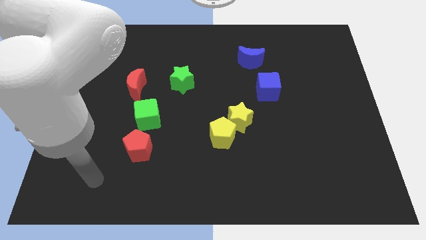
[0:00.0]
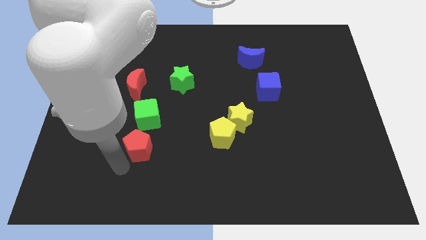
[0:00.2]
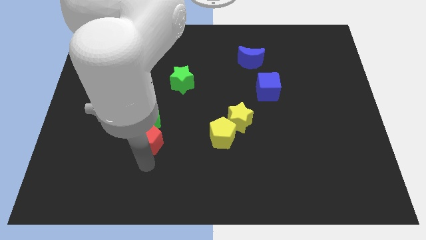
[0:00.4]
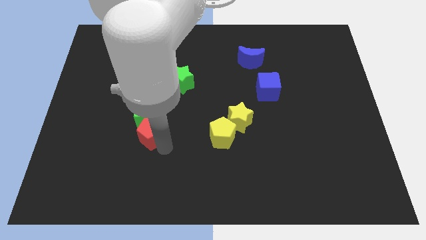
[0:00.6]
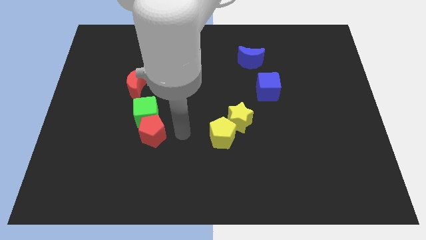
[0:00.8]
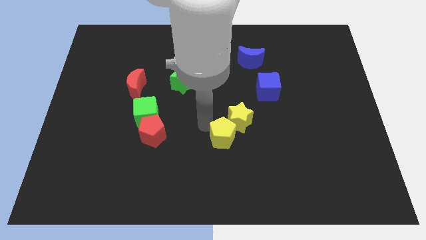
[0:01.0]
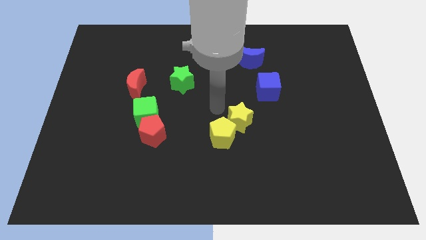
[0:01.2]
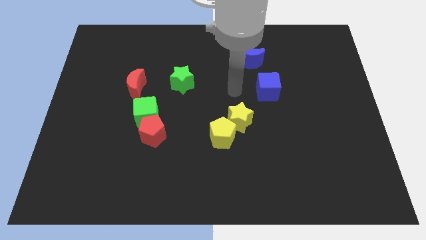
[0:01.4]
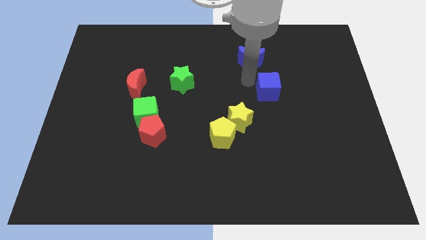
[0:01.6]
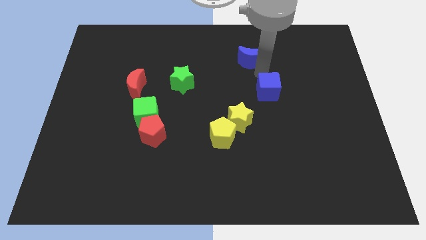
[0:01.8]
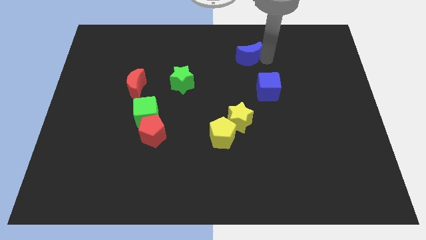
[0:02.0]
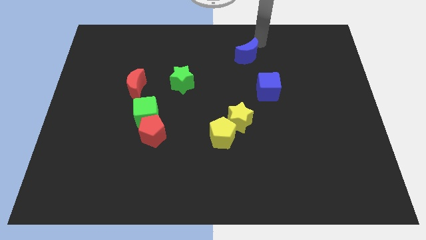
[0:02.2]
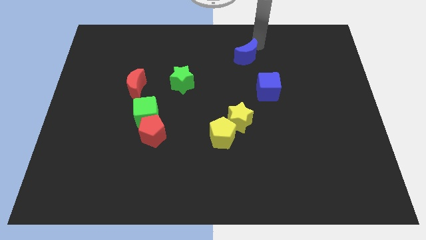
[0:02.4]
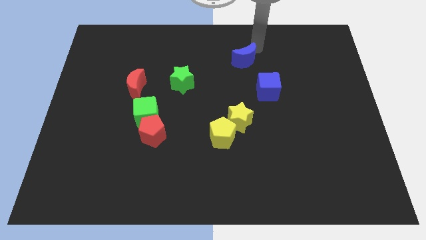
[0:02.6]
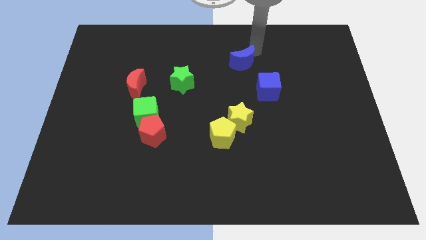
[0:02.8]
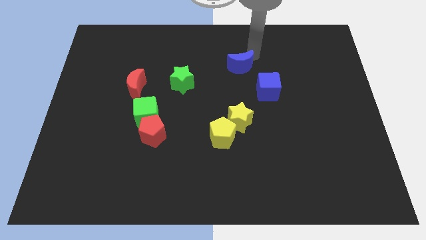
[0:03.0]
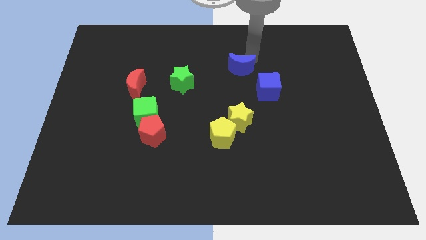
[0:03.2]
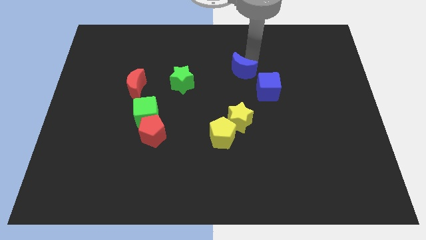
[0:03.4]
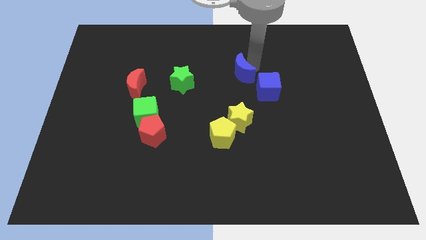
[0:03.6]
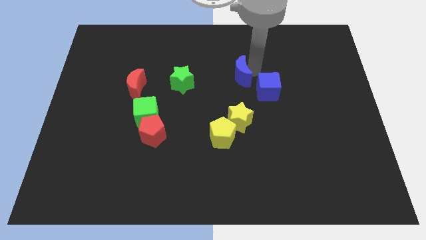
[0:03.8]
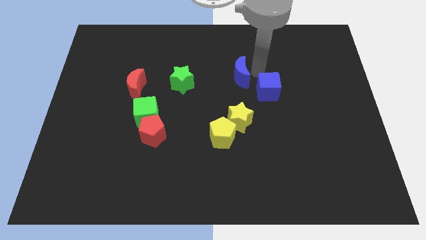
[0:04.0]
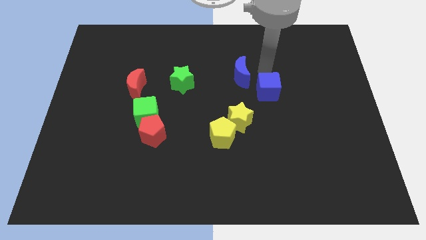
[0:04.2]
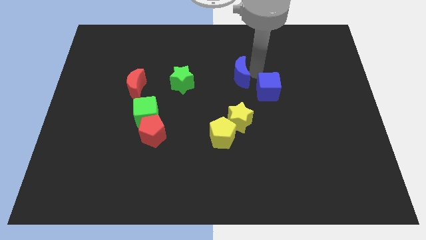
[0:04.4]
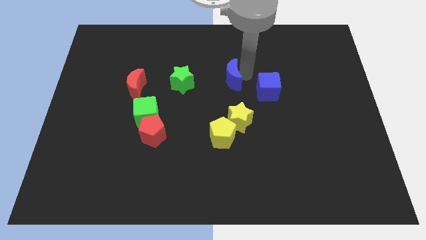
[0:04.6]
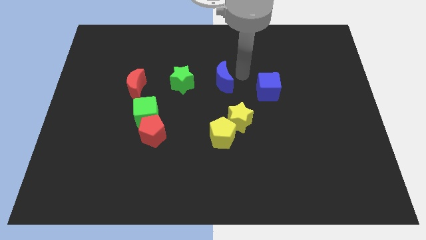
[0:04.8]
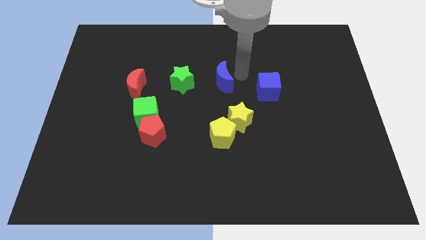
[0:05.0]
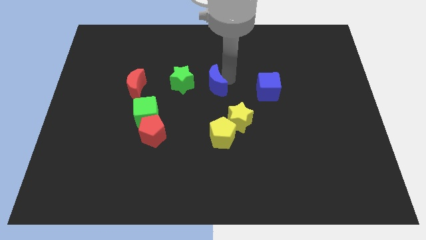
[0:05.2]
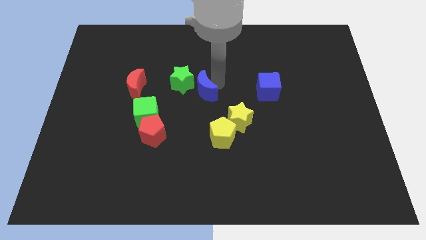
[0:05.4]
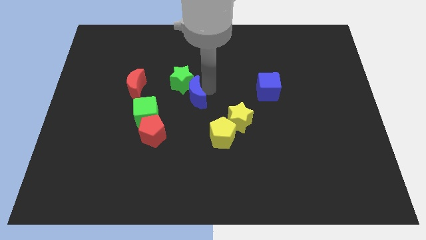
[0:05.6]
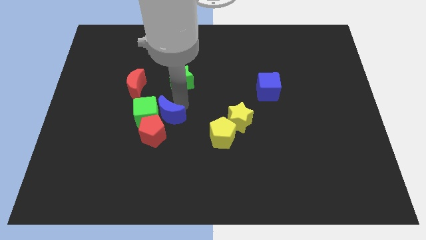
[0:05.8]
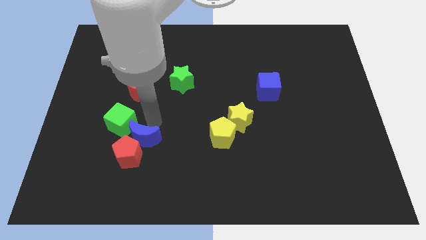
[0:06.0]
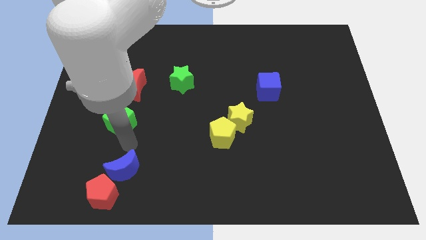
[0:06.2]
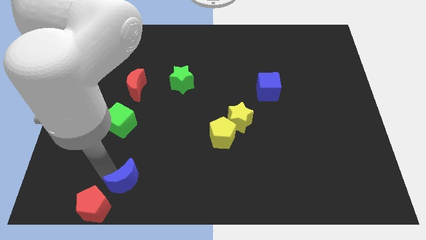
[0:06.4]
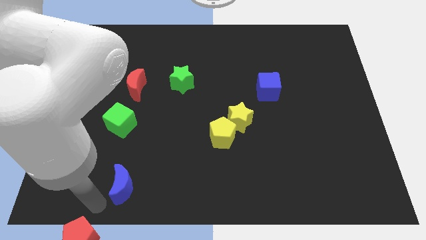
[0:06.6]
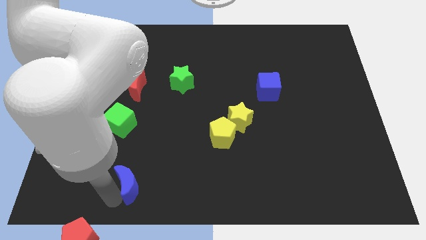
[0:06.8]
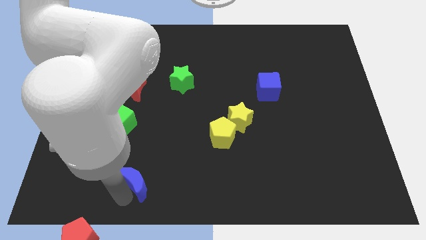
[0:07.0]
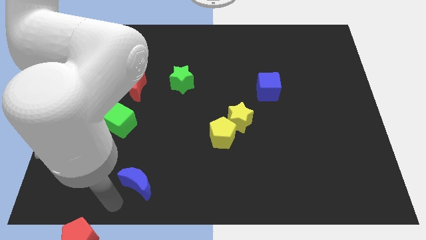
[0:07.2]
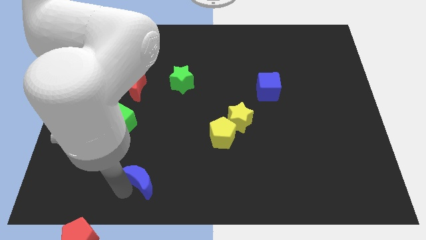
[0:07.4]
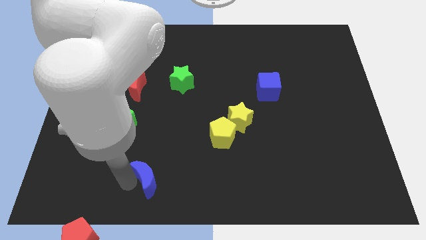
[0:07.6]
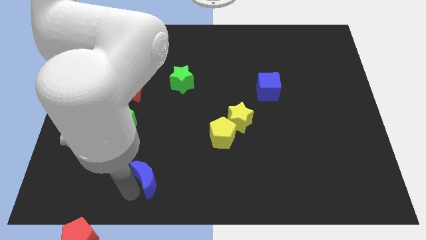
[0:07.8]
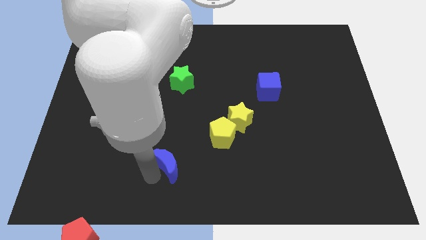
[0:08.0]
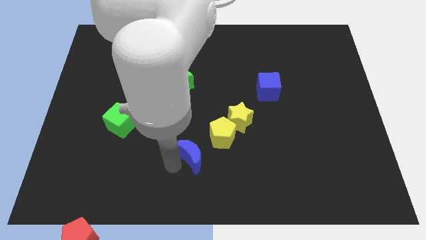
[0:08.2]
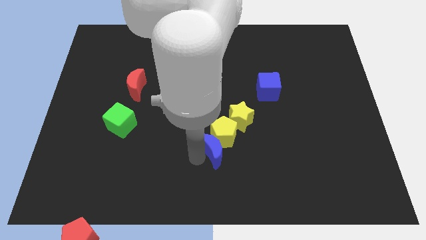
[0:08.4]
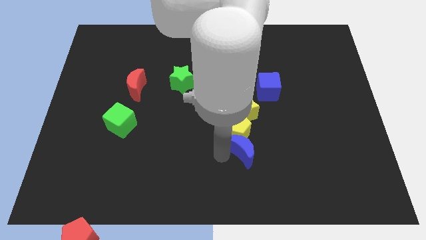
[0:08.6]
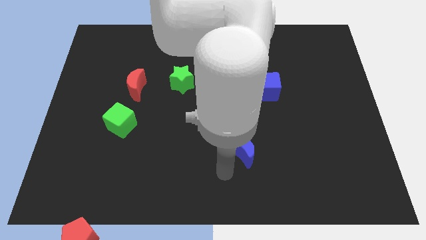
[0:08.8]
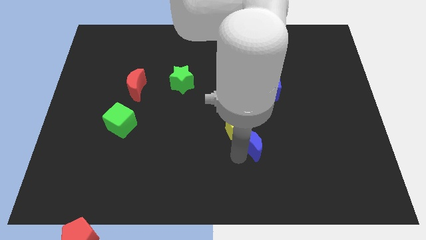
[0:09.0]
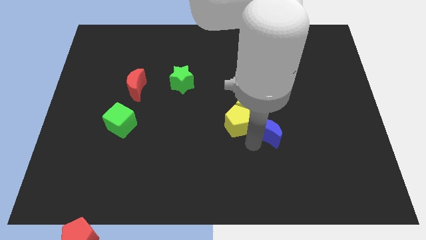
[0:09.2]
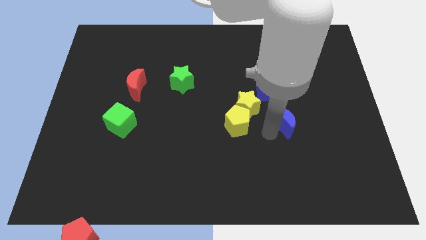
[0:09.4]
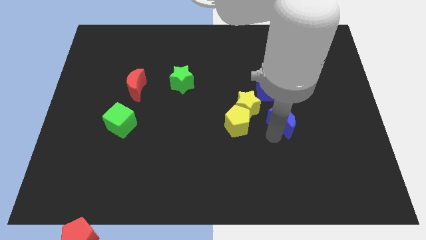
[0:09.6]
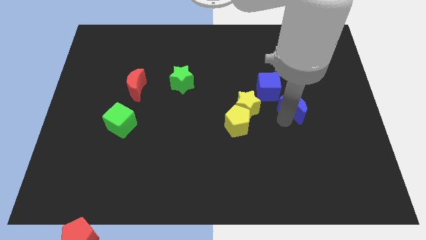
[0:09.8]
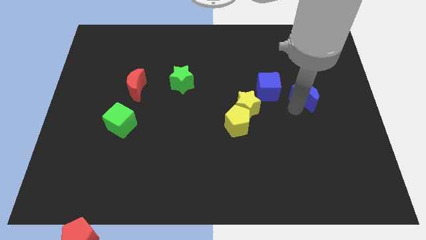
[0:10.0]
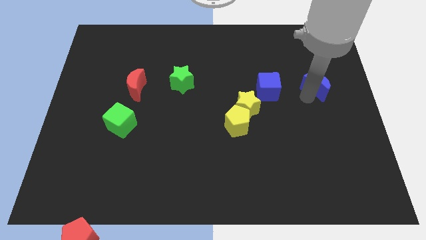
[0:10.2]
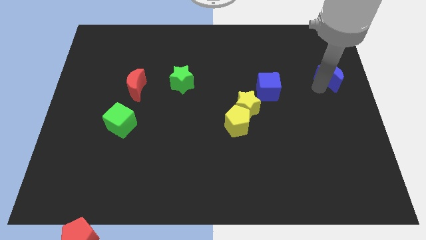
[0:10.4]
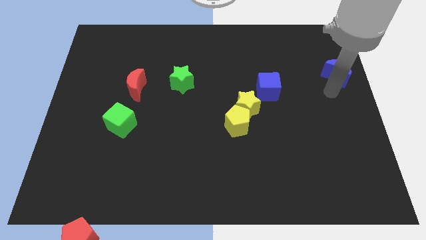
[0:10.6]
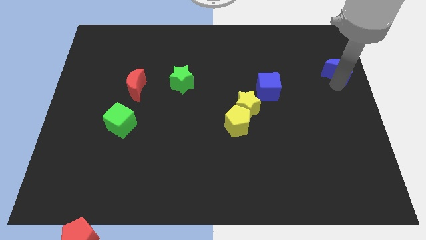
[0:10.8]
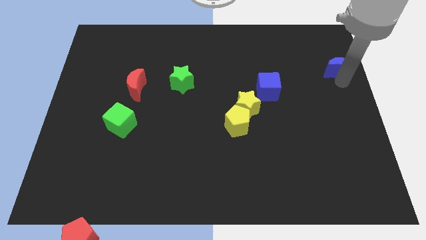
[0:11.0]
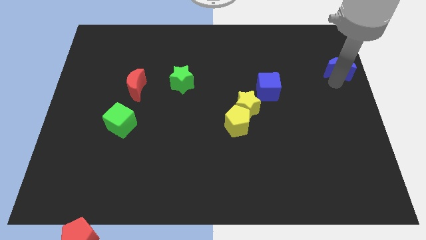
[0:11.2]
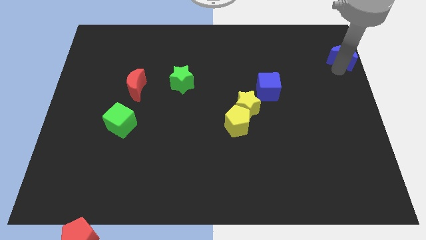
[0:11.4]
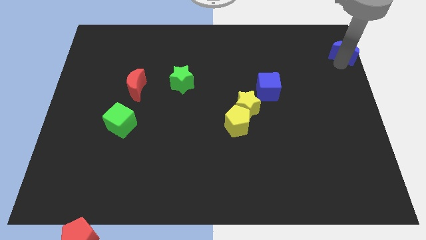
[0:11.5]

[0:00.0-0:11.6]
slide the blue moon to the upper right corner
